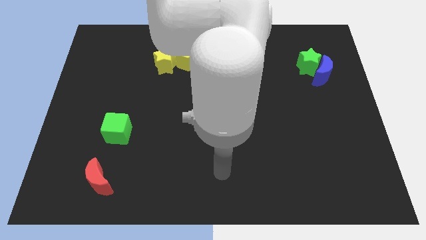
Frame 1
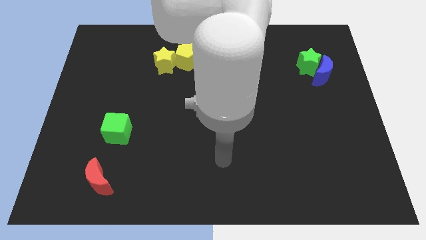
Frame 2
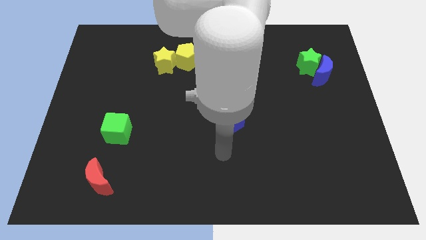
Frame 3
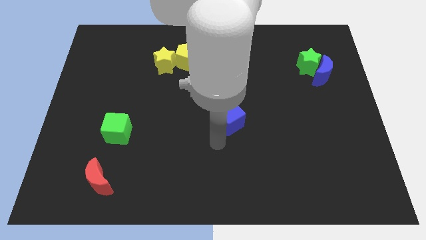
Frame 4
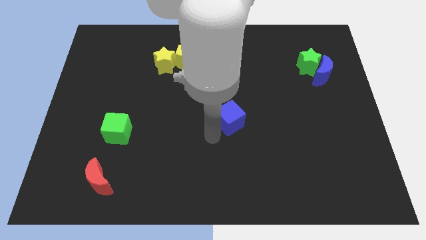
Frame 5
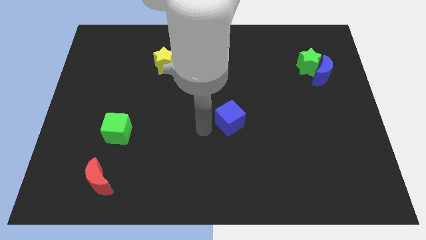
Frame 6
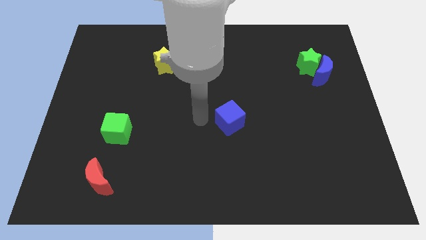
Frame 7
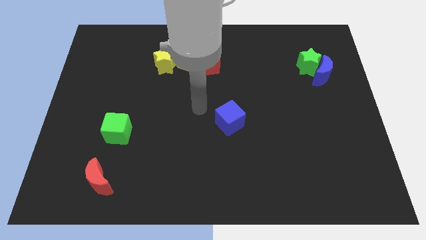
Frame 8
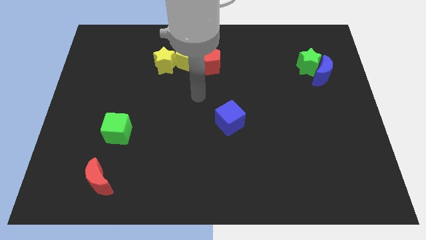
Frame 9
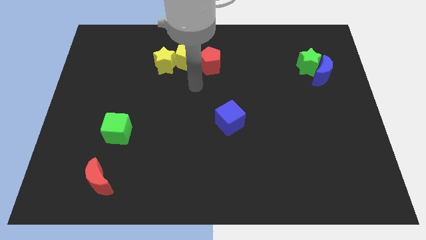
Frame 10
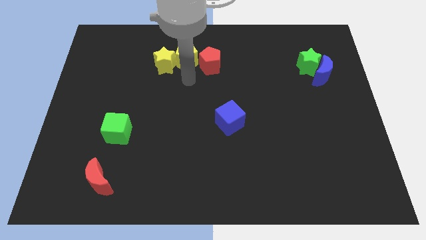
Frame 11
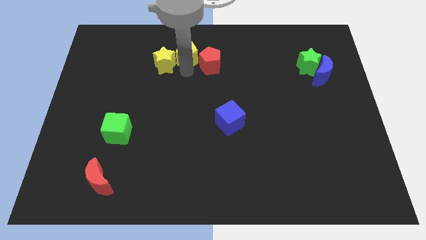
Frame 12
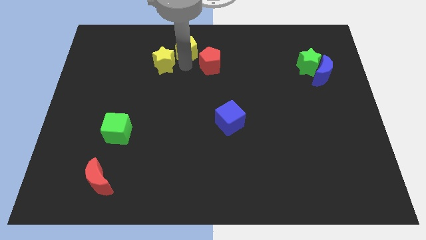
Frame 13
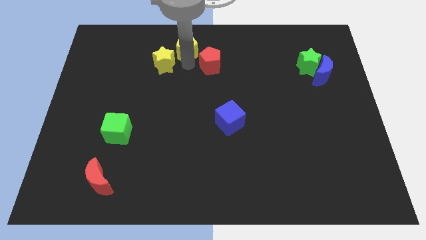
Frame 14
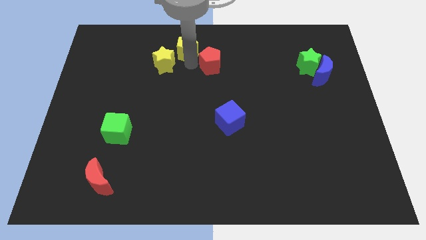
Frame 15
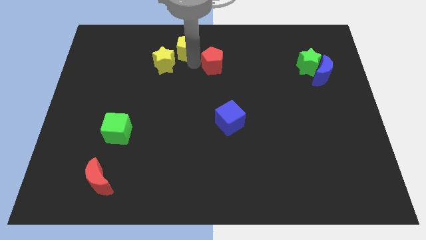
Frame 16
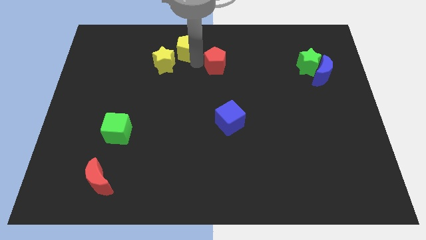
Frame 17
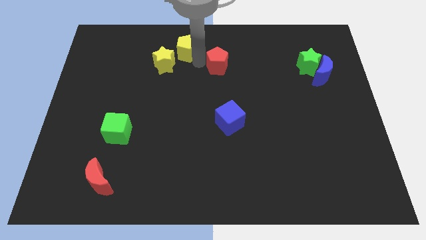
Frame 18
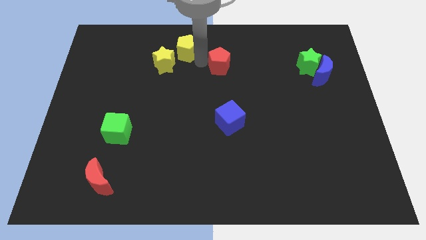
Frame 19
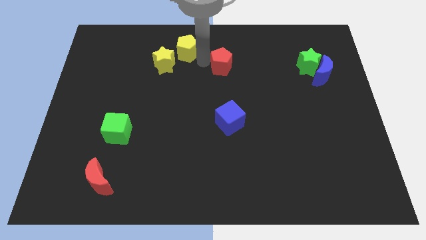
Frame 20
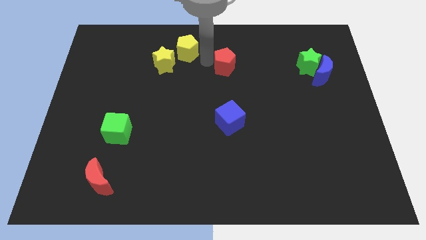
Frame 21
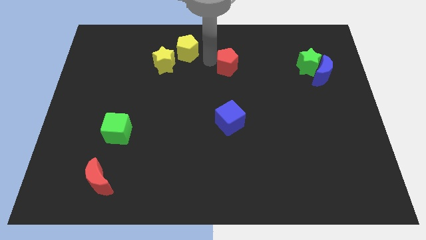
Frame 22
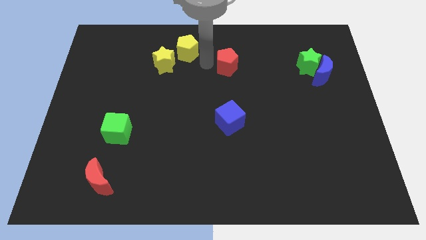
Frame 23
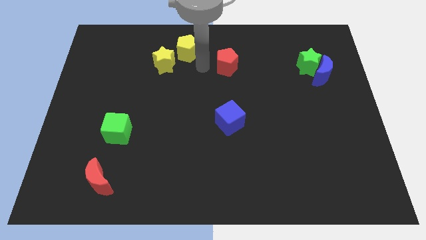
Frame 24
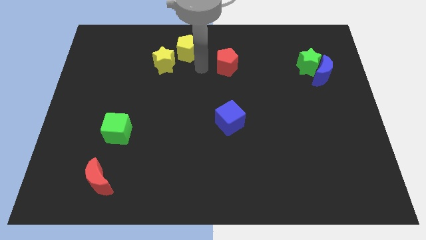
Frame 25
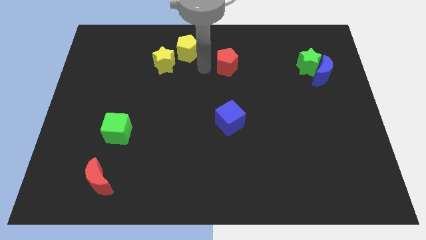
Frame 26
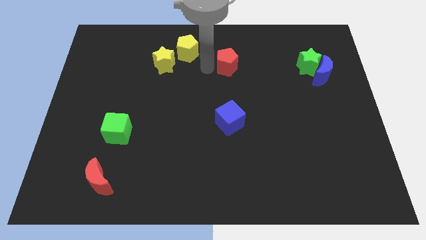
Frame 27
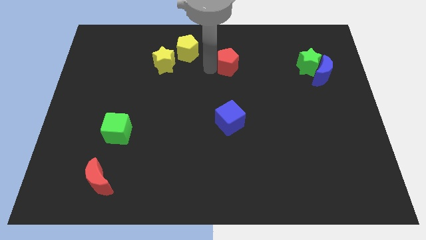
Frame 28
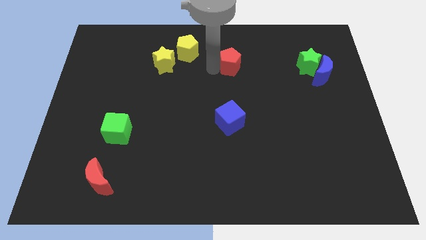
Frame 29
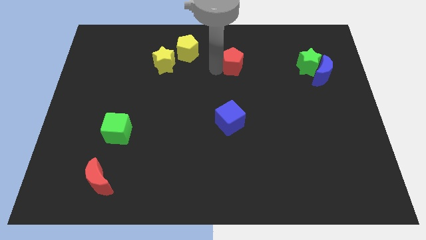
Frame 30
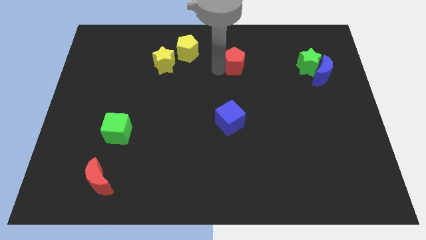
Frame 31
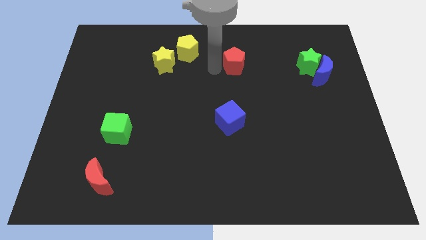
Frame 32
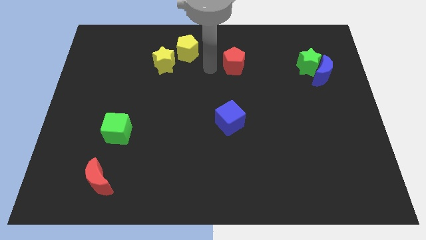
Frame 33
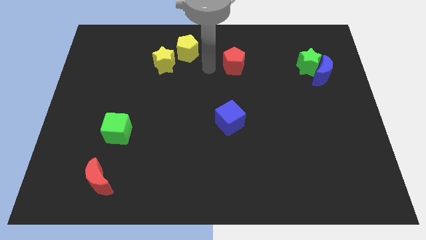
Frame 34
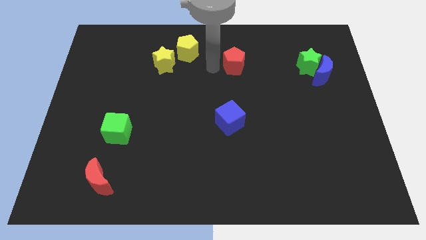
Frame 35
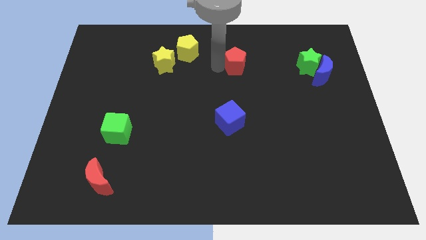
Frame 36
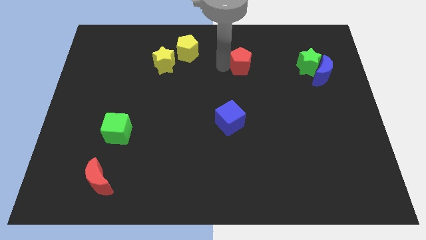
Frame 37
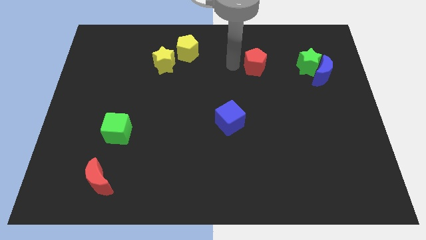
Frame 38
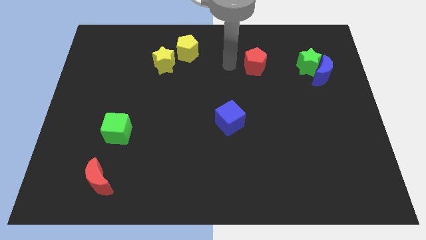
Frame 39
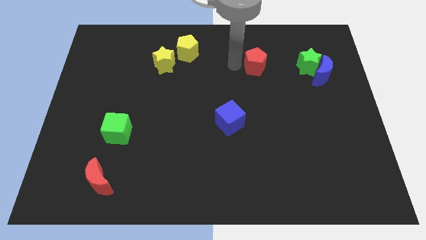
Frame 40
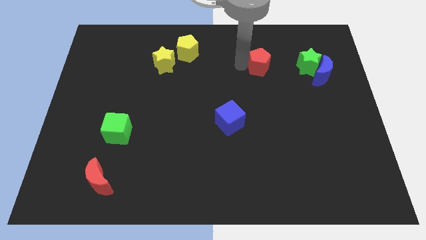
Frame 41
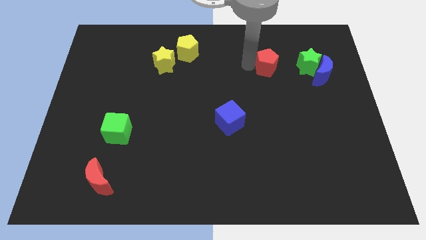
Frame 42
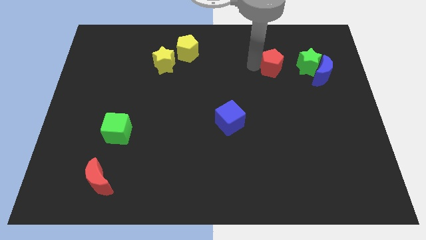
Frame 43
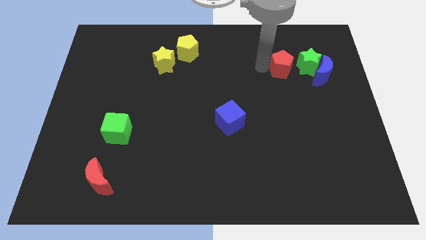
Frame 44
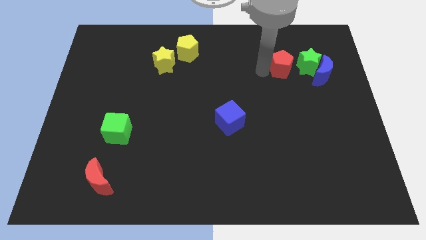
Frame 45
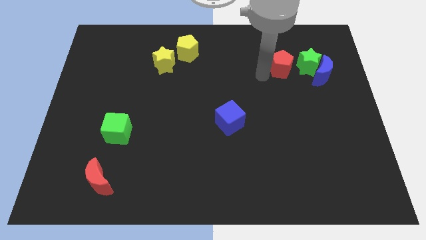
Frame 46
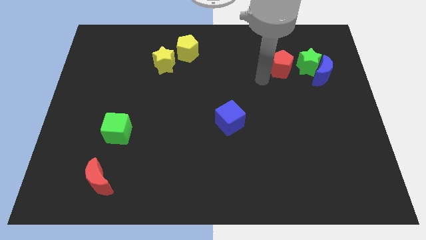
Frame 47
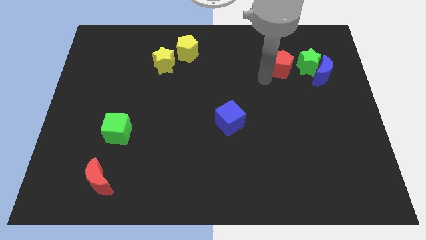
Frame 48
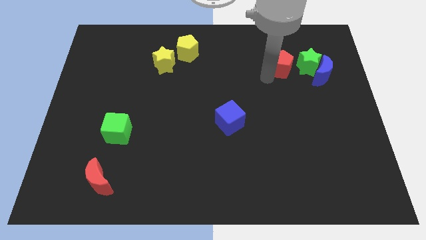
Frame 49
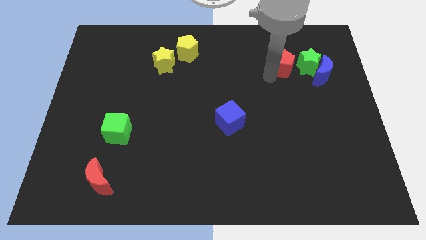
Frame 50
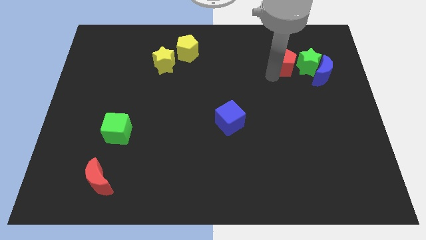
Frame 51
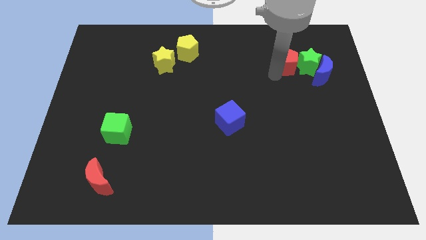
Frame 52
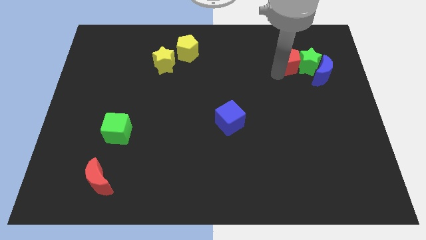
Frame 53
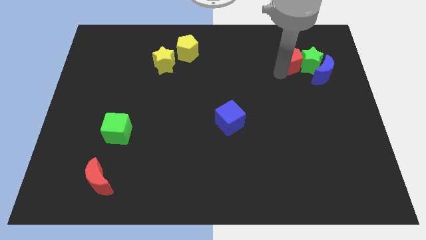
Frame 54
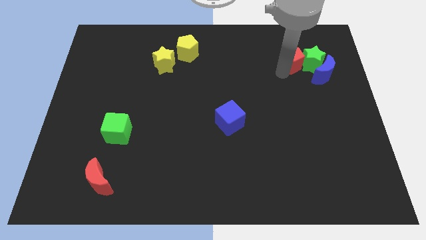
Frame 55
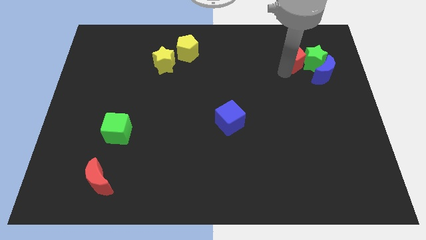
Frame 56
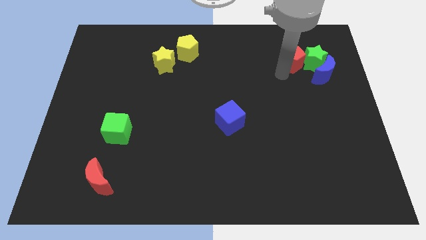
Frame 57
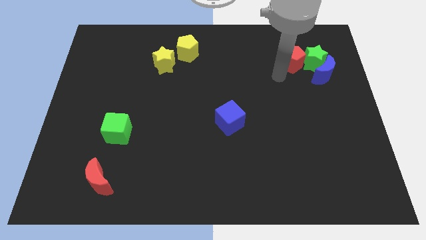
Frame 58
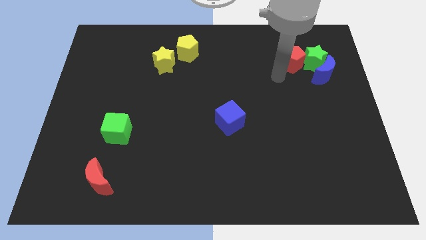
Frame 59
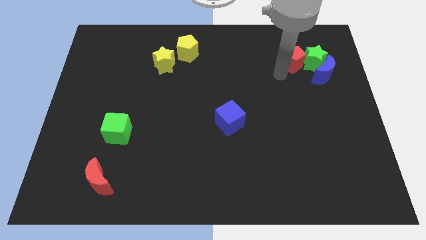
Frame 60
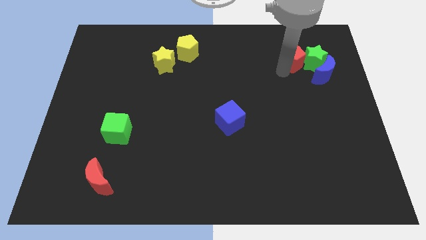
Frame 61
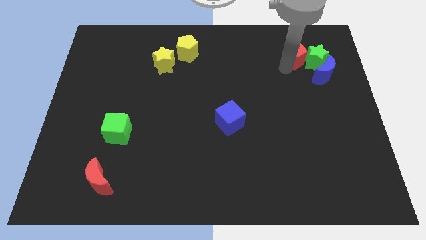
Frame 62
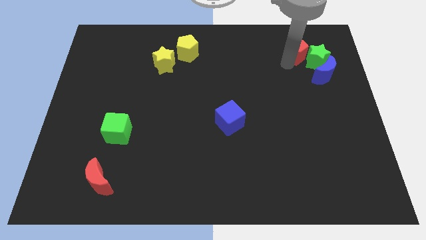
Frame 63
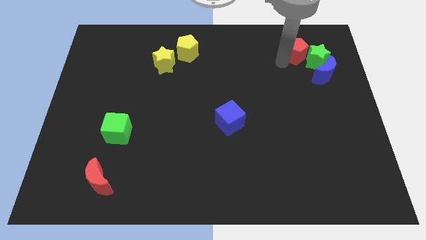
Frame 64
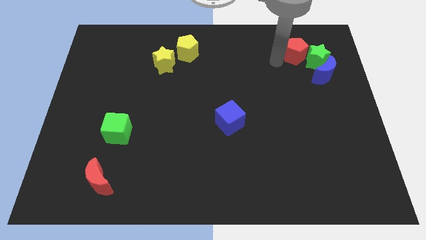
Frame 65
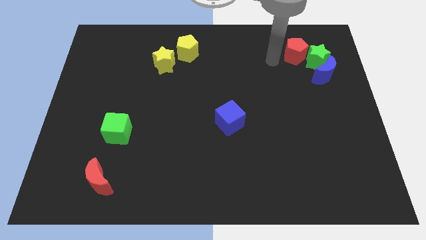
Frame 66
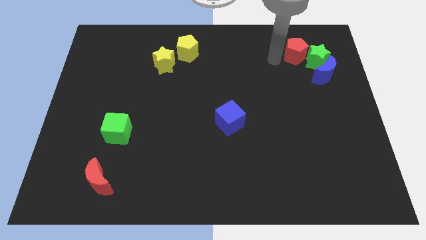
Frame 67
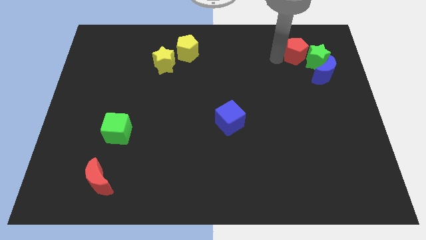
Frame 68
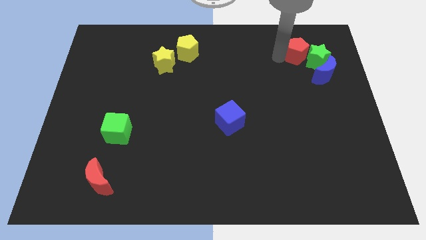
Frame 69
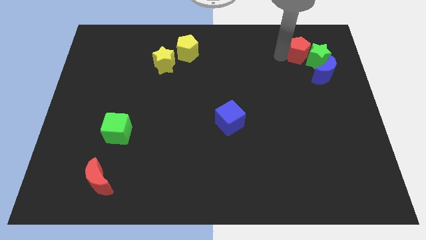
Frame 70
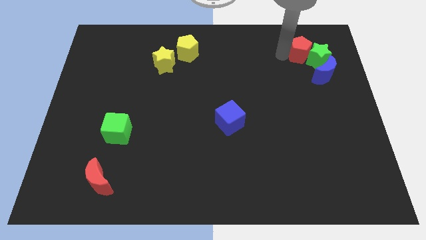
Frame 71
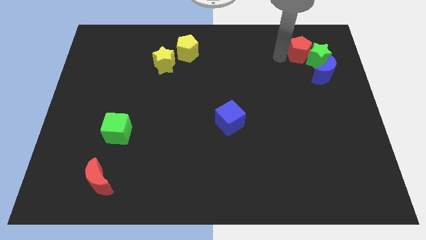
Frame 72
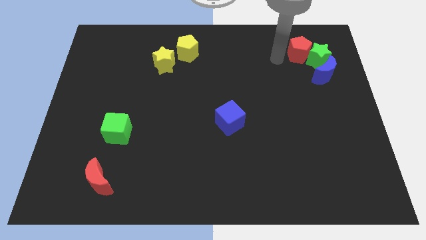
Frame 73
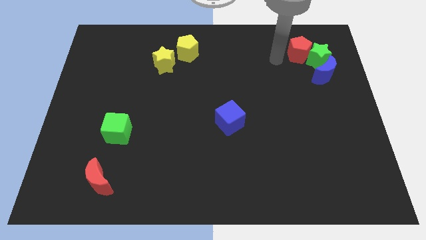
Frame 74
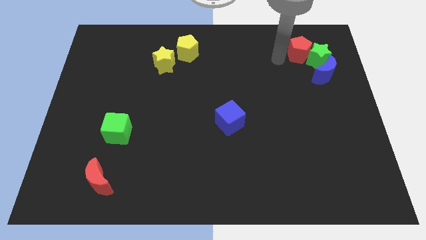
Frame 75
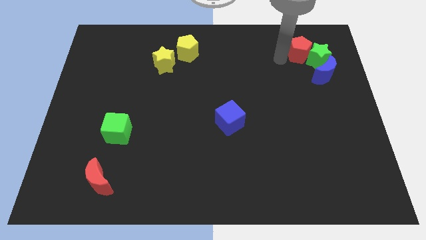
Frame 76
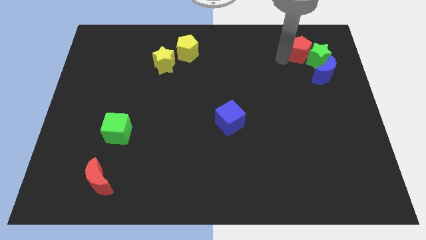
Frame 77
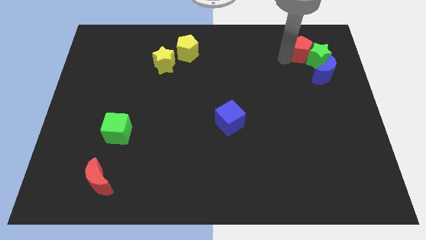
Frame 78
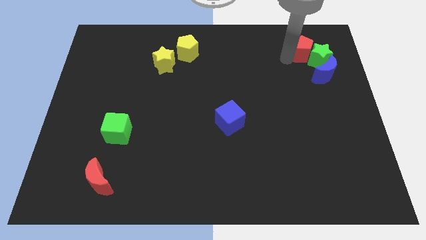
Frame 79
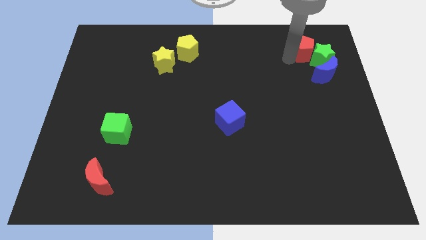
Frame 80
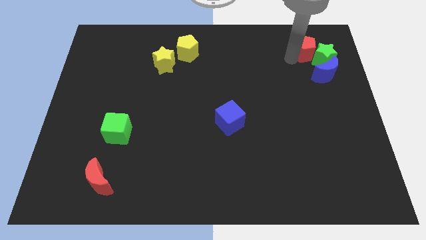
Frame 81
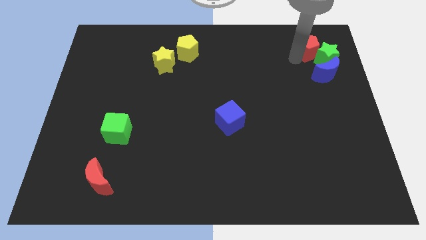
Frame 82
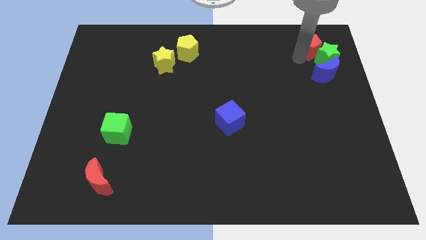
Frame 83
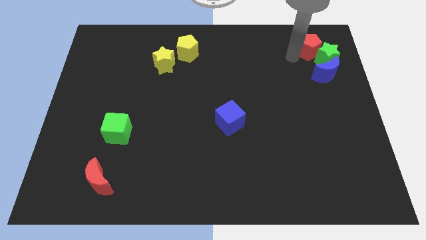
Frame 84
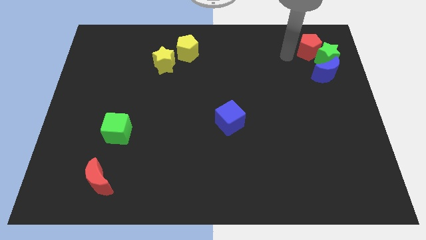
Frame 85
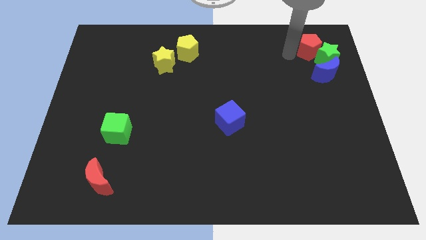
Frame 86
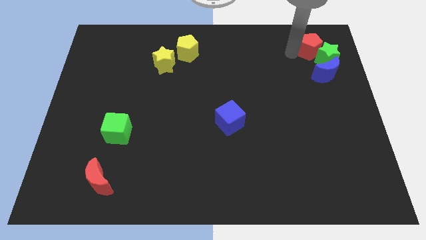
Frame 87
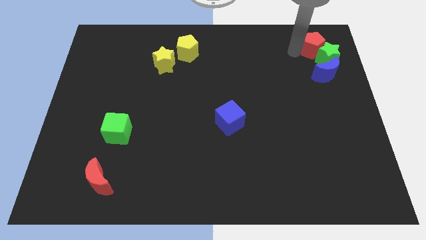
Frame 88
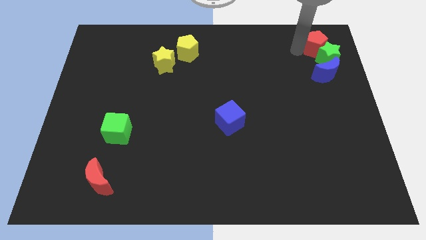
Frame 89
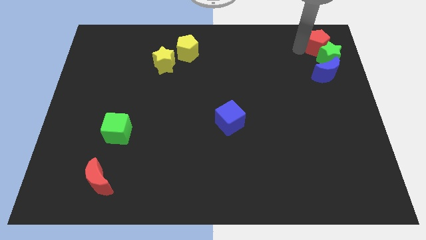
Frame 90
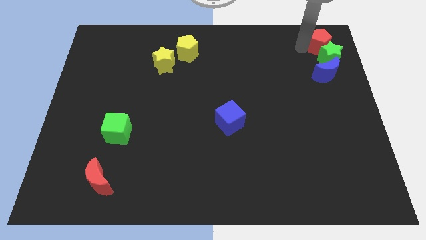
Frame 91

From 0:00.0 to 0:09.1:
push the red pentagon to the top right
